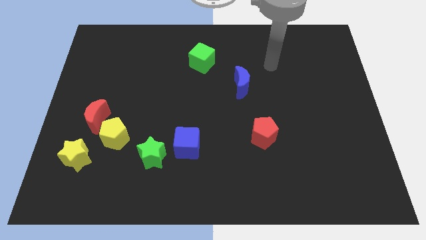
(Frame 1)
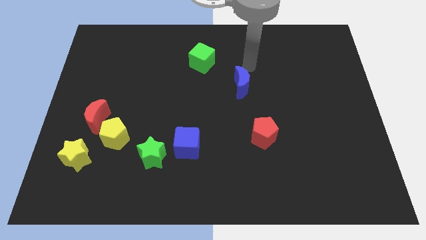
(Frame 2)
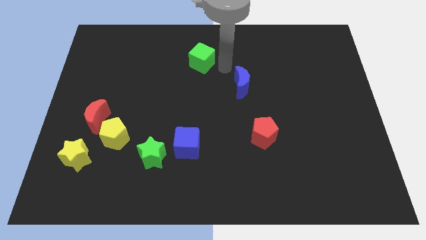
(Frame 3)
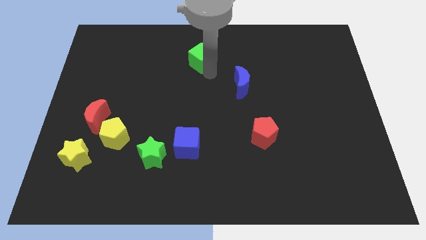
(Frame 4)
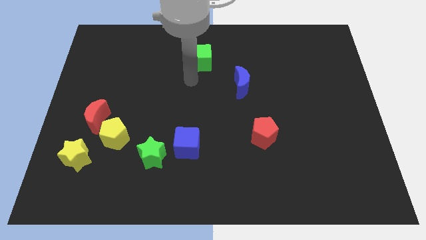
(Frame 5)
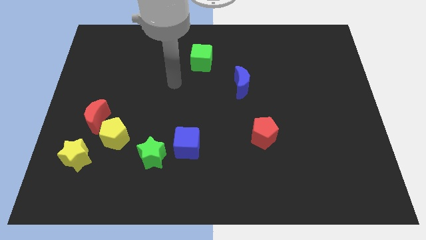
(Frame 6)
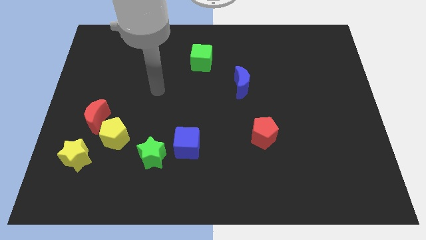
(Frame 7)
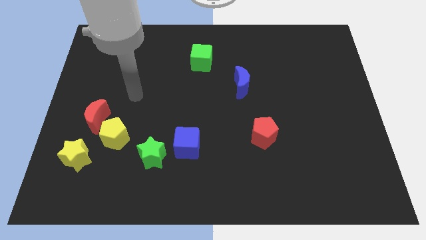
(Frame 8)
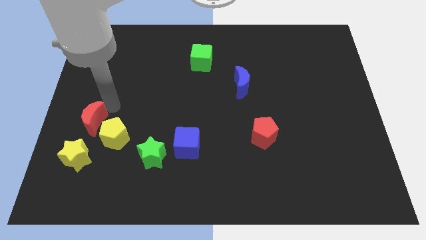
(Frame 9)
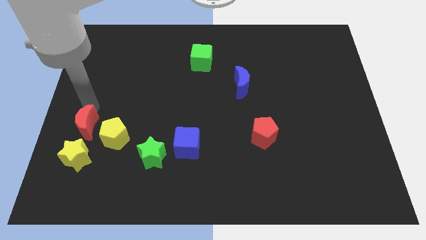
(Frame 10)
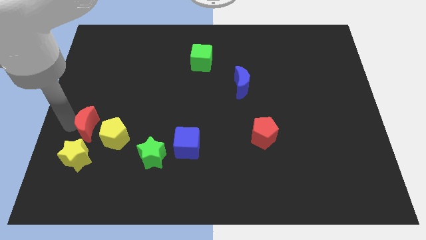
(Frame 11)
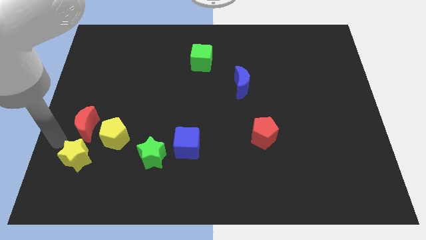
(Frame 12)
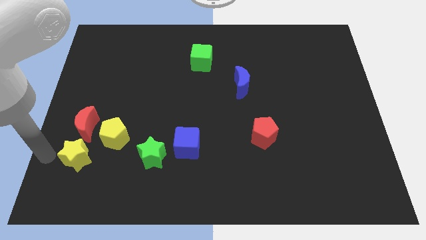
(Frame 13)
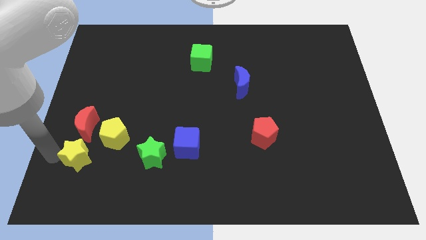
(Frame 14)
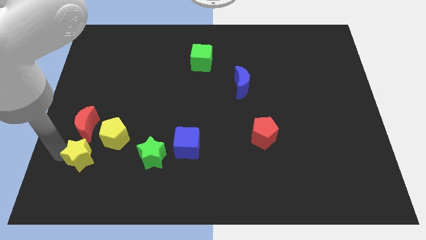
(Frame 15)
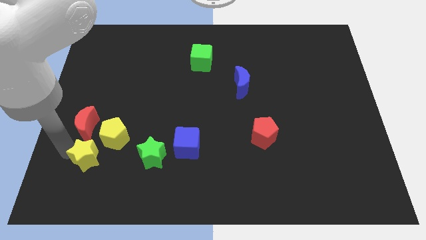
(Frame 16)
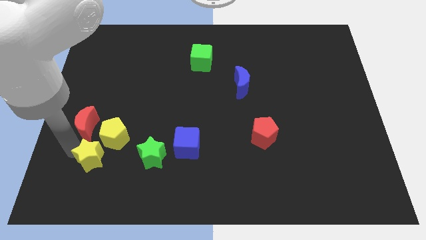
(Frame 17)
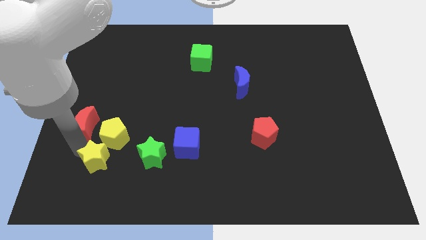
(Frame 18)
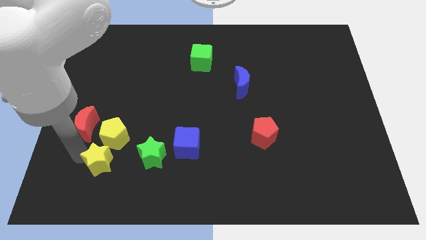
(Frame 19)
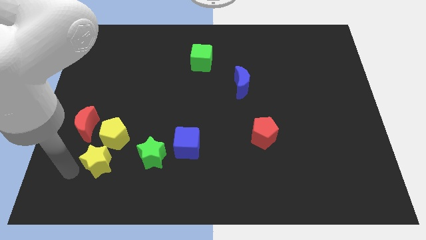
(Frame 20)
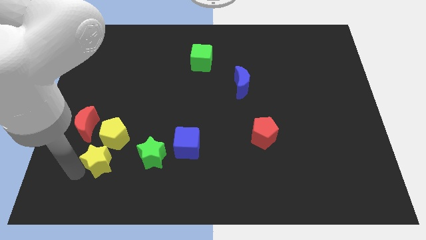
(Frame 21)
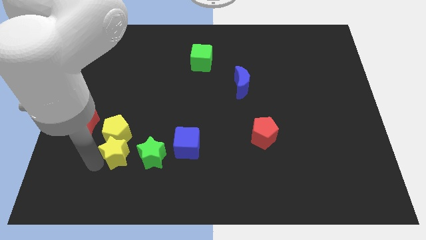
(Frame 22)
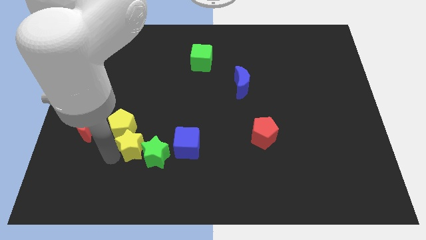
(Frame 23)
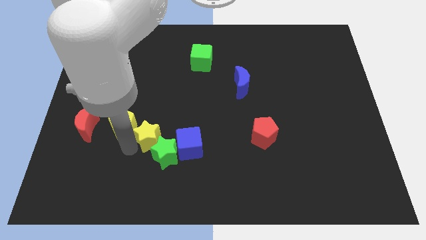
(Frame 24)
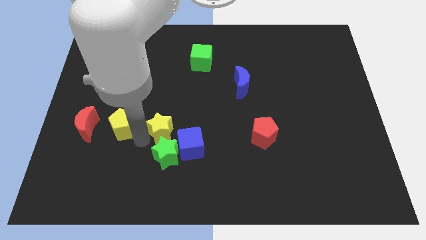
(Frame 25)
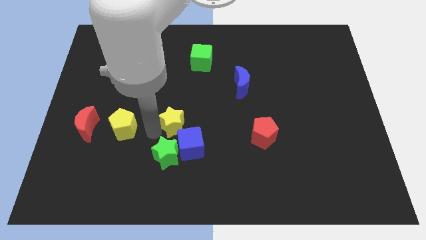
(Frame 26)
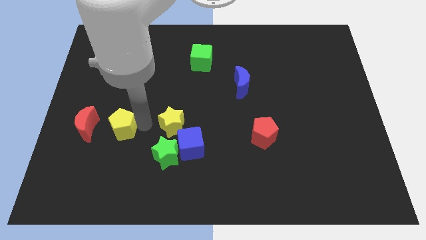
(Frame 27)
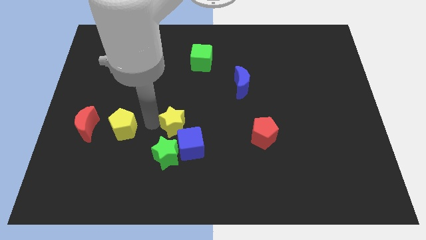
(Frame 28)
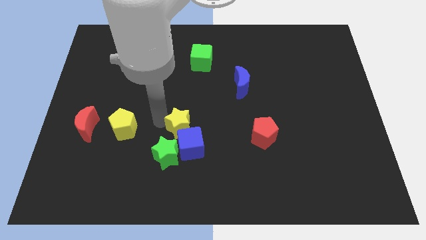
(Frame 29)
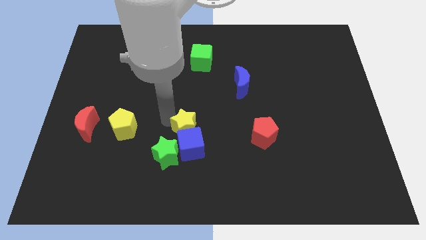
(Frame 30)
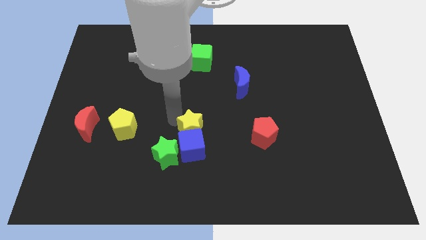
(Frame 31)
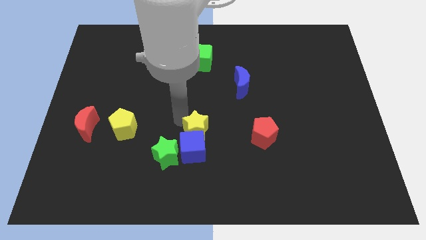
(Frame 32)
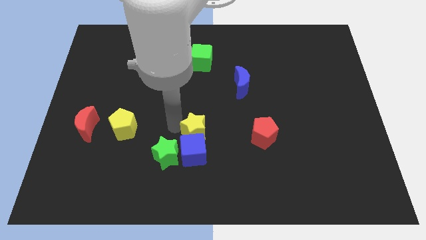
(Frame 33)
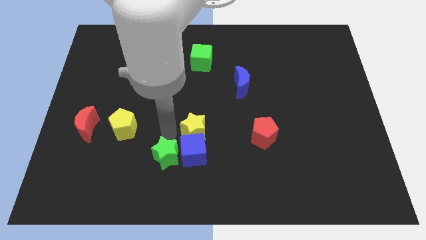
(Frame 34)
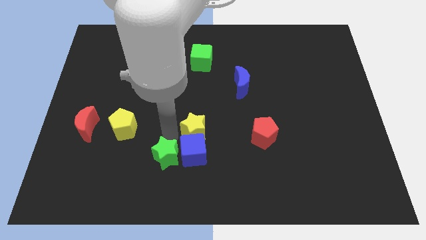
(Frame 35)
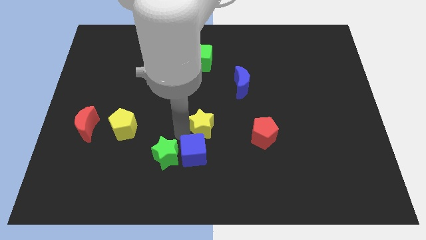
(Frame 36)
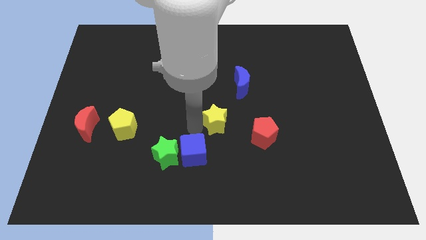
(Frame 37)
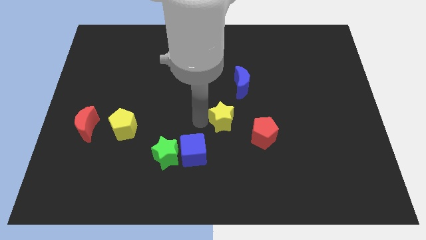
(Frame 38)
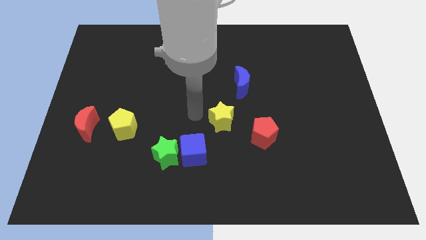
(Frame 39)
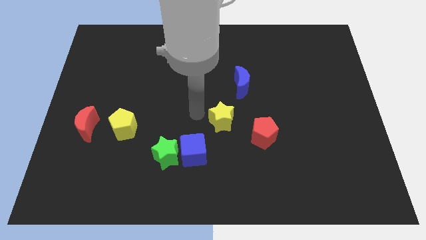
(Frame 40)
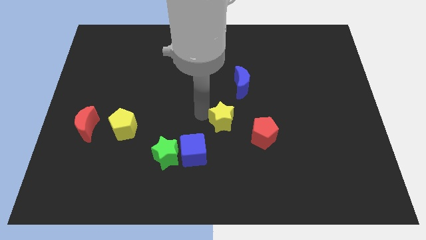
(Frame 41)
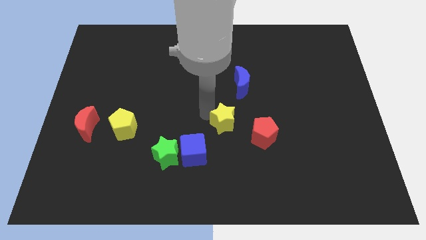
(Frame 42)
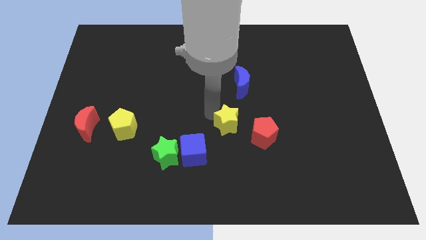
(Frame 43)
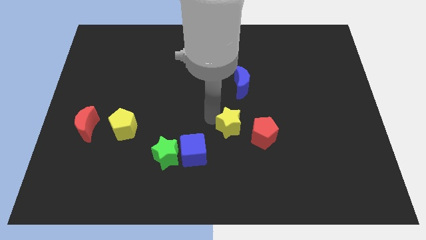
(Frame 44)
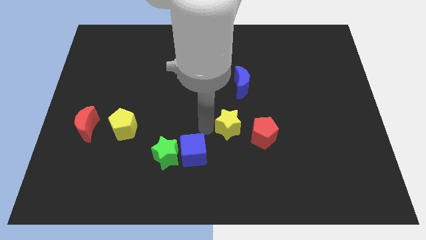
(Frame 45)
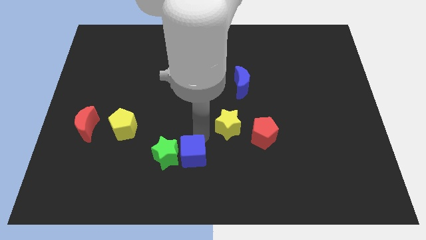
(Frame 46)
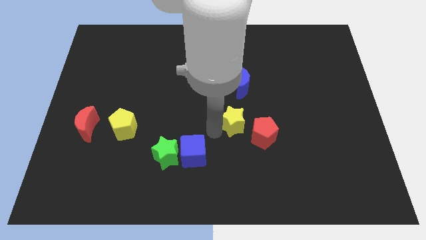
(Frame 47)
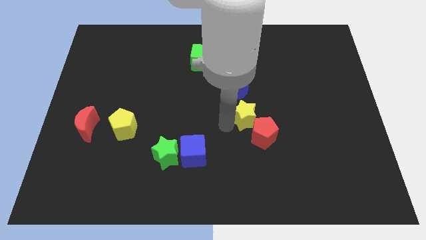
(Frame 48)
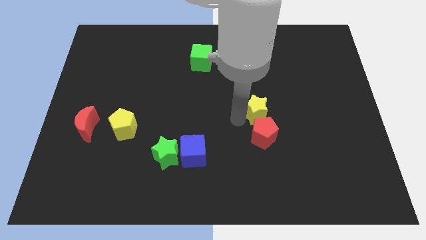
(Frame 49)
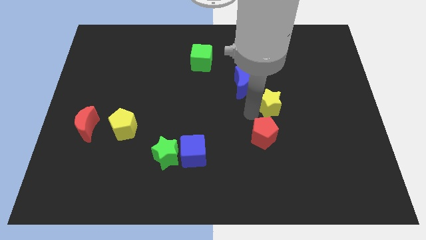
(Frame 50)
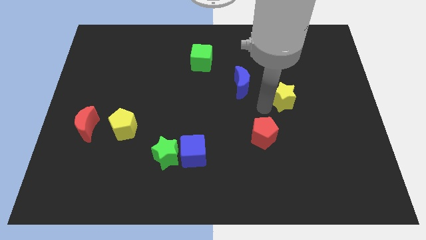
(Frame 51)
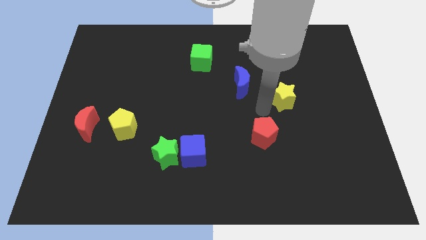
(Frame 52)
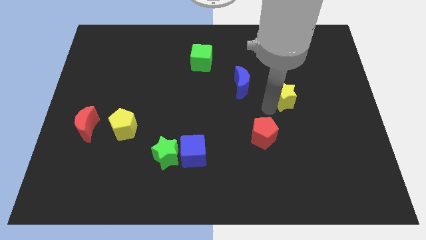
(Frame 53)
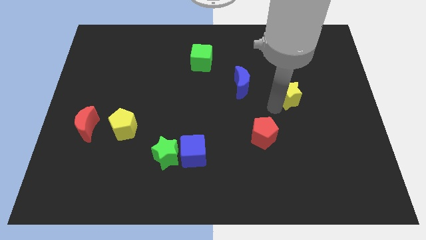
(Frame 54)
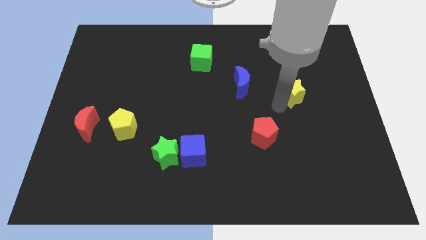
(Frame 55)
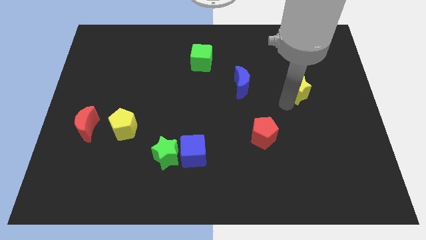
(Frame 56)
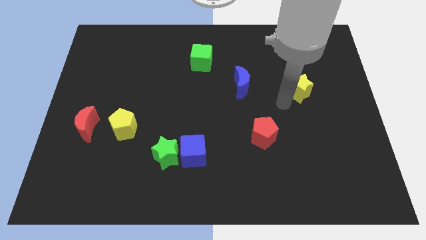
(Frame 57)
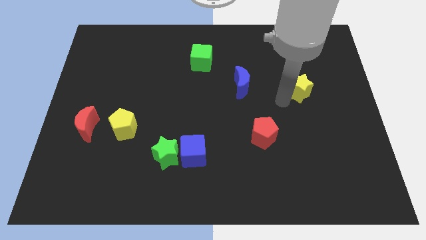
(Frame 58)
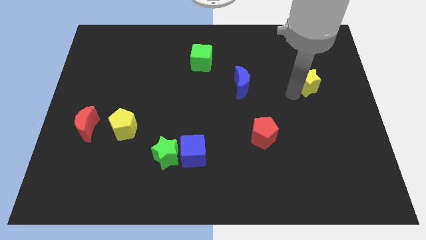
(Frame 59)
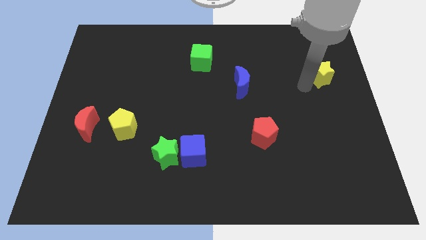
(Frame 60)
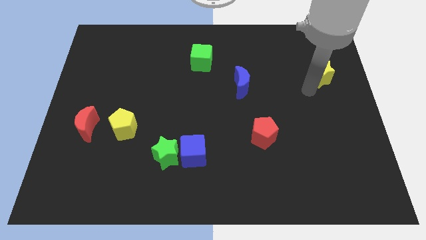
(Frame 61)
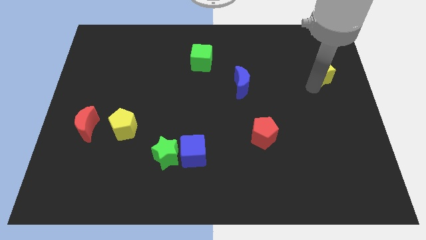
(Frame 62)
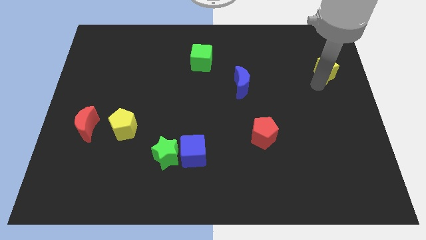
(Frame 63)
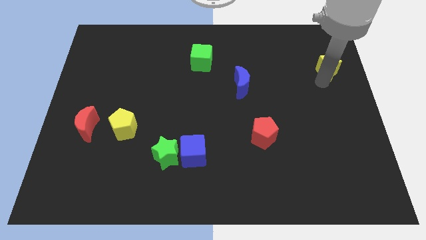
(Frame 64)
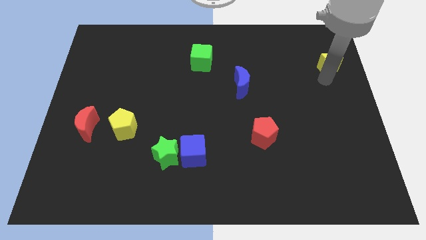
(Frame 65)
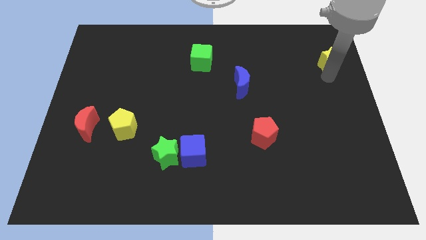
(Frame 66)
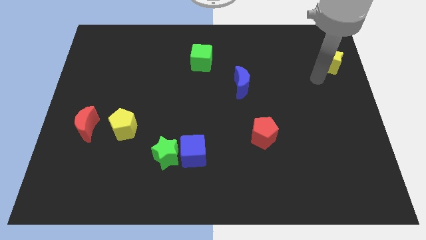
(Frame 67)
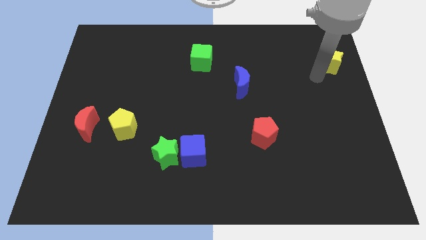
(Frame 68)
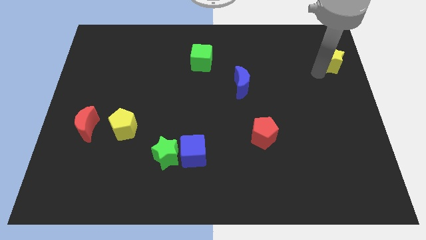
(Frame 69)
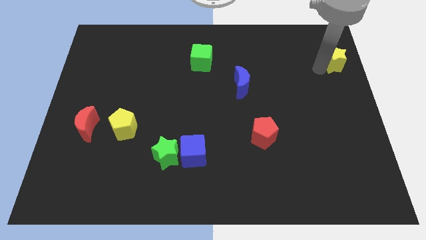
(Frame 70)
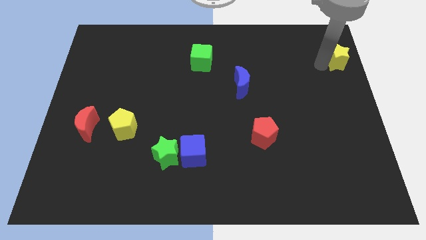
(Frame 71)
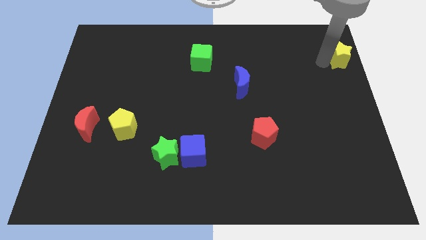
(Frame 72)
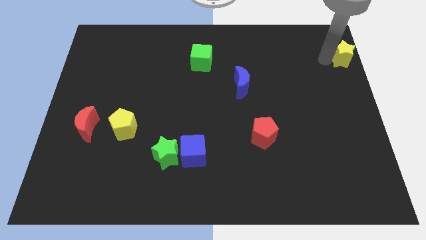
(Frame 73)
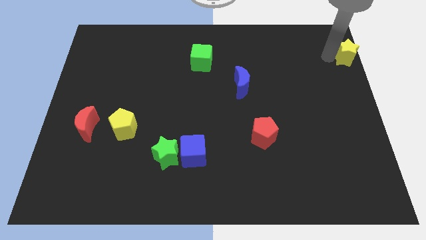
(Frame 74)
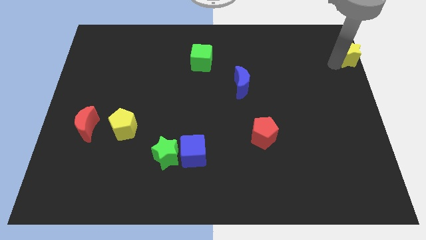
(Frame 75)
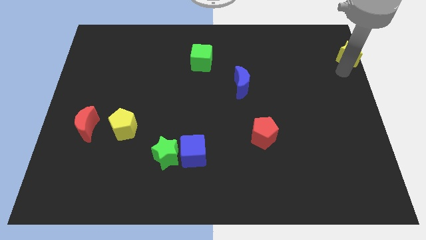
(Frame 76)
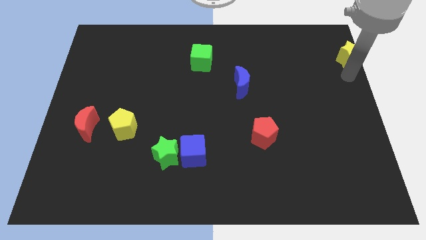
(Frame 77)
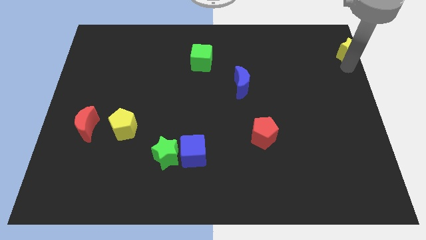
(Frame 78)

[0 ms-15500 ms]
move the yellow star to the upper right corner
